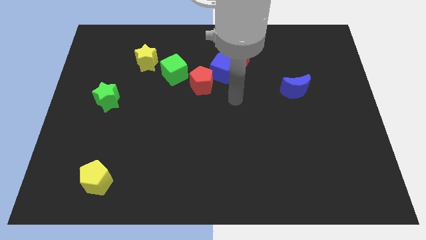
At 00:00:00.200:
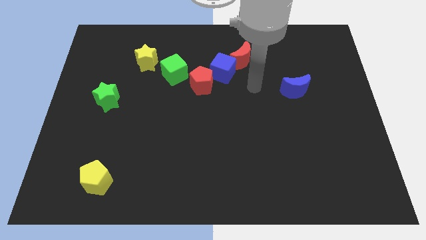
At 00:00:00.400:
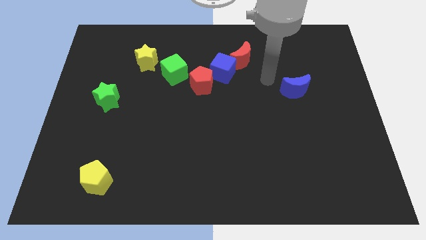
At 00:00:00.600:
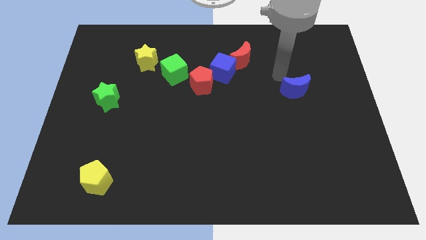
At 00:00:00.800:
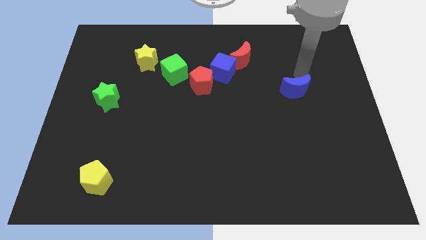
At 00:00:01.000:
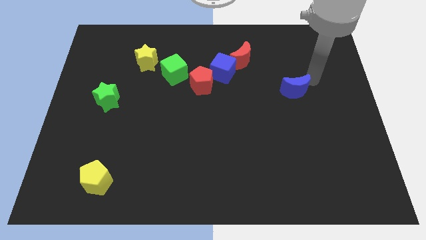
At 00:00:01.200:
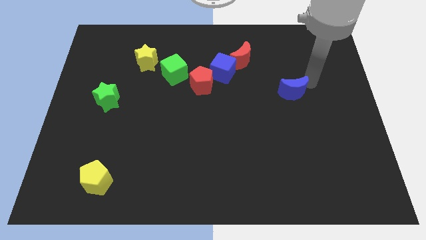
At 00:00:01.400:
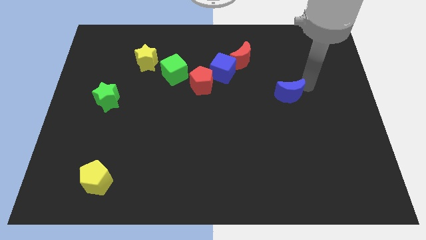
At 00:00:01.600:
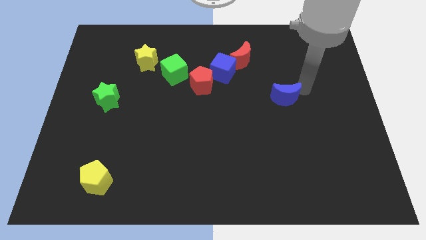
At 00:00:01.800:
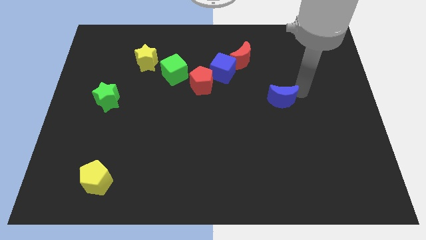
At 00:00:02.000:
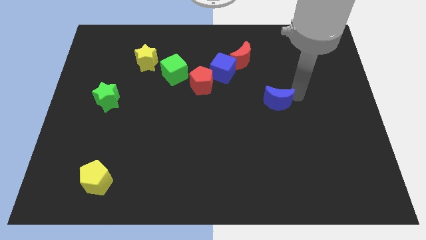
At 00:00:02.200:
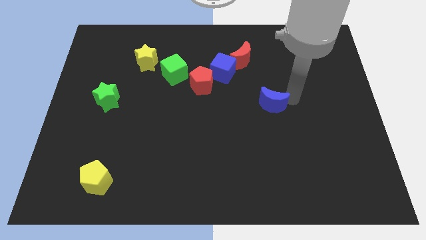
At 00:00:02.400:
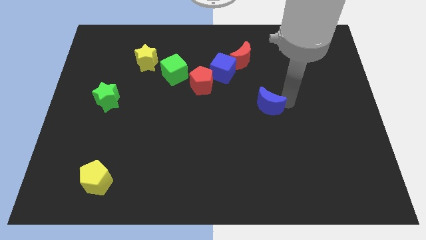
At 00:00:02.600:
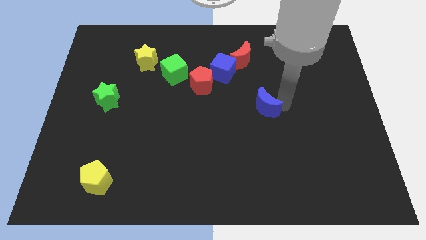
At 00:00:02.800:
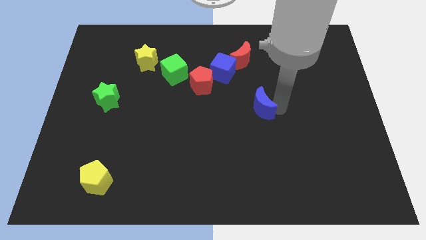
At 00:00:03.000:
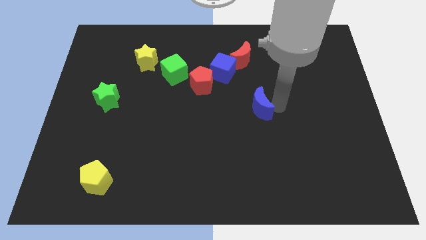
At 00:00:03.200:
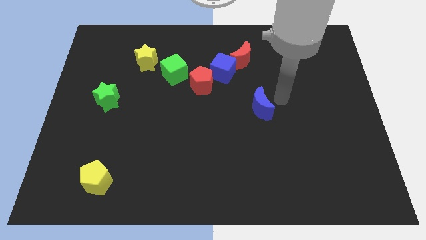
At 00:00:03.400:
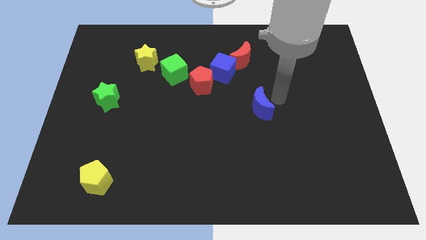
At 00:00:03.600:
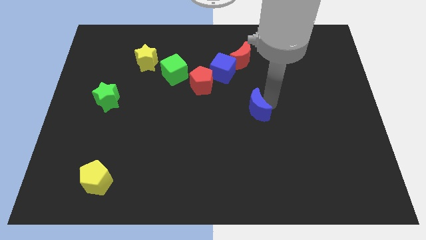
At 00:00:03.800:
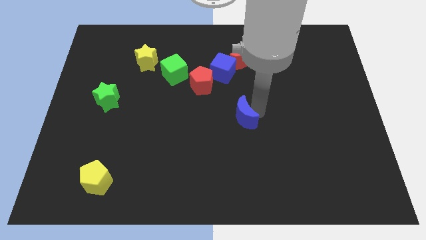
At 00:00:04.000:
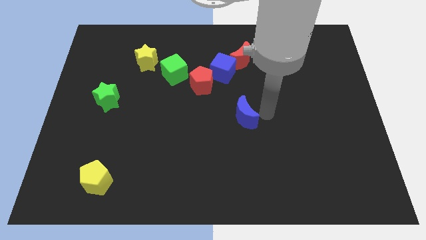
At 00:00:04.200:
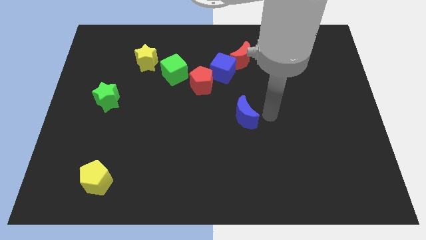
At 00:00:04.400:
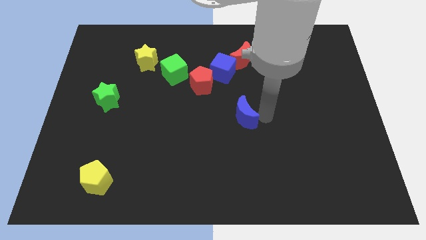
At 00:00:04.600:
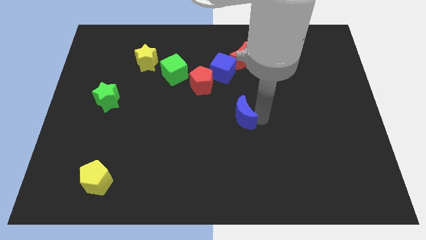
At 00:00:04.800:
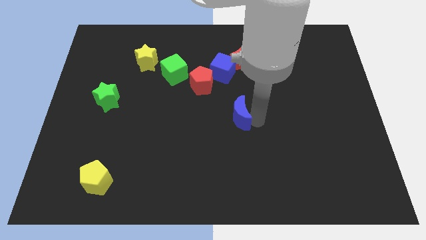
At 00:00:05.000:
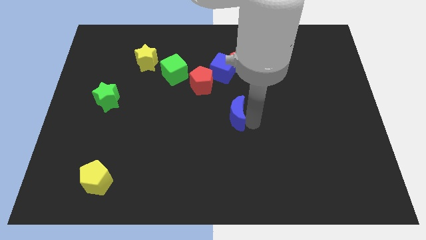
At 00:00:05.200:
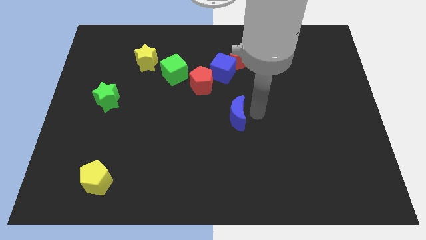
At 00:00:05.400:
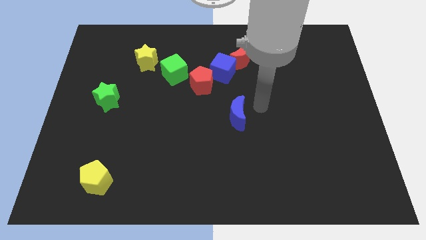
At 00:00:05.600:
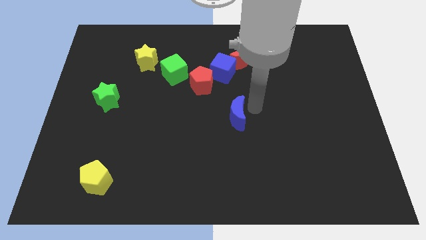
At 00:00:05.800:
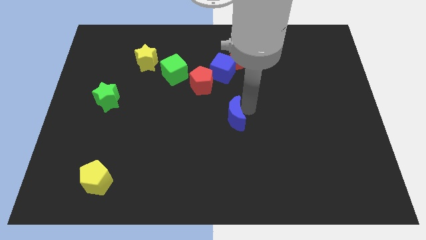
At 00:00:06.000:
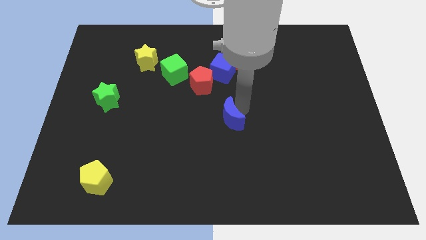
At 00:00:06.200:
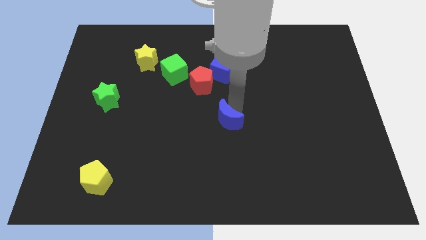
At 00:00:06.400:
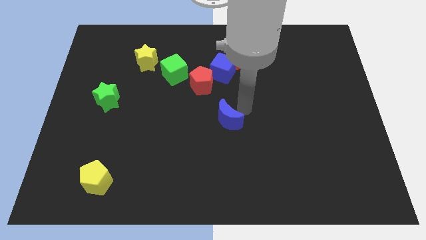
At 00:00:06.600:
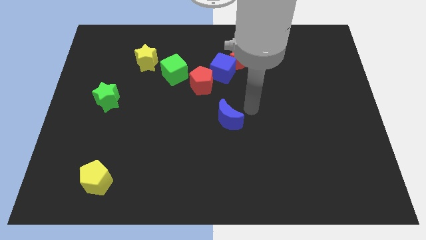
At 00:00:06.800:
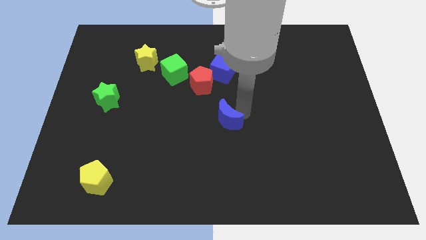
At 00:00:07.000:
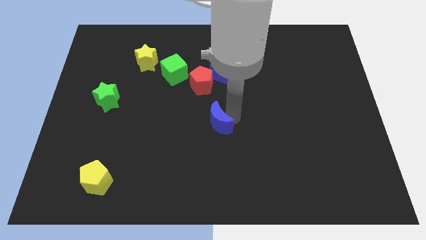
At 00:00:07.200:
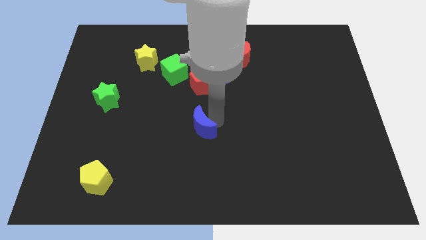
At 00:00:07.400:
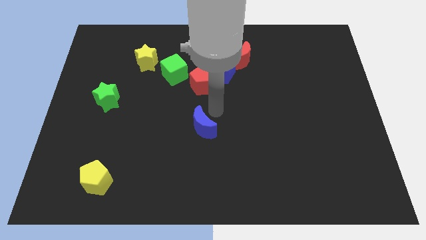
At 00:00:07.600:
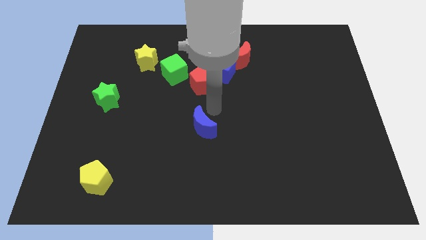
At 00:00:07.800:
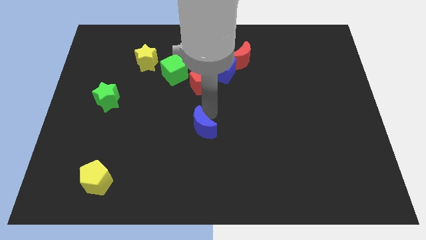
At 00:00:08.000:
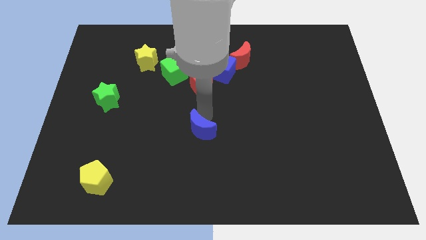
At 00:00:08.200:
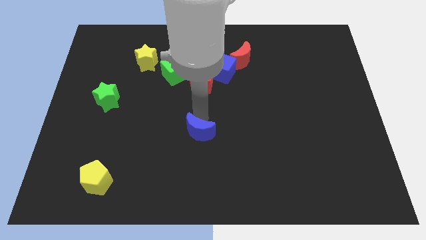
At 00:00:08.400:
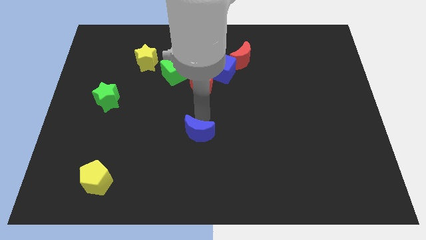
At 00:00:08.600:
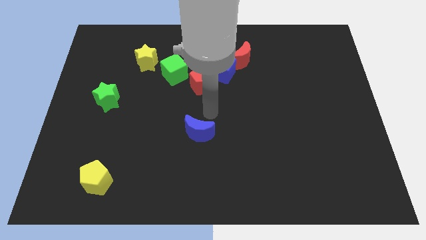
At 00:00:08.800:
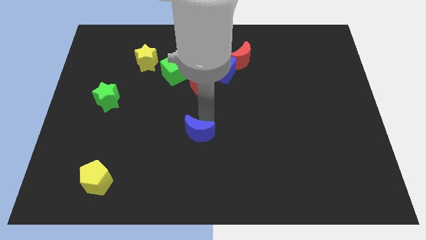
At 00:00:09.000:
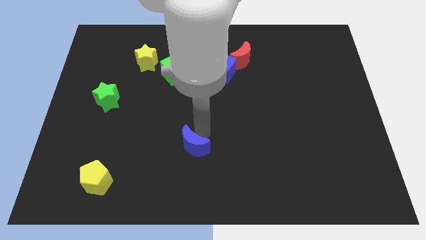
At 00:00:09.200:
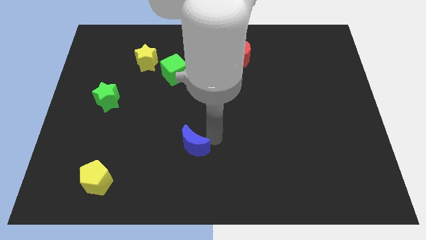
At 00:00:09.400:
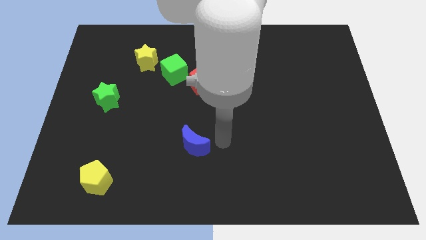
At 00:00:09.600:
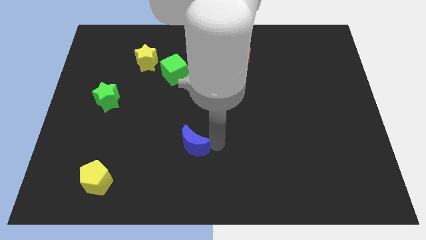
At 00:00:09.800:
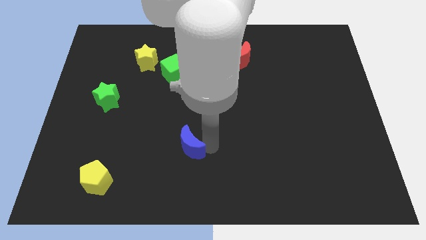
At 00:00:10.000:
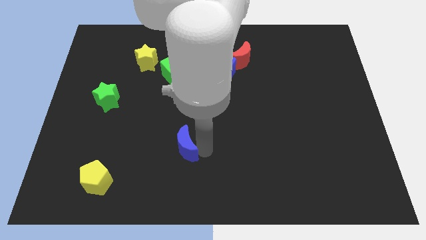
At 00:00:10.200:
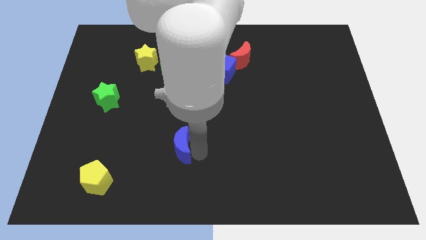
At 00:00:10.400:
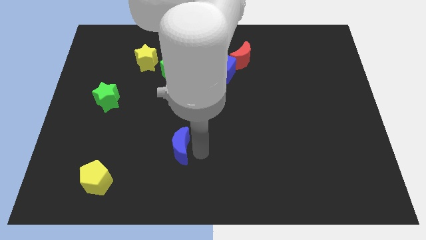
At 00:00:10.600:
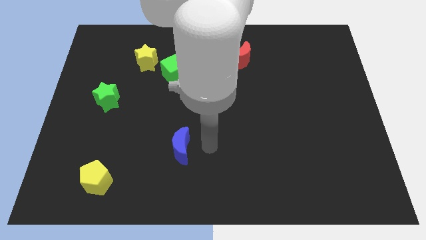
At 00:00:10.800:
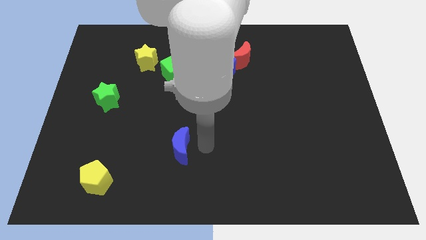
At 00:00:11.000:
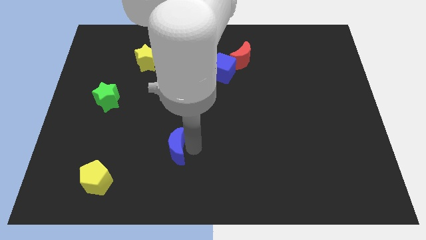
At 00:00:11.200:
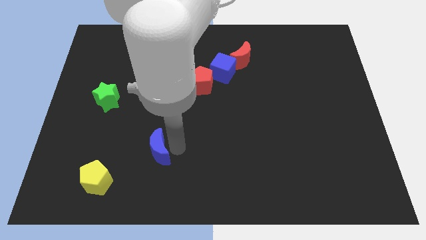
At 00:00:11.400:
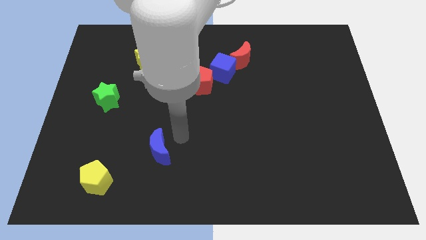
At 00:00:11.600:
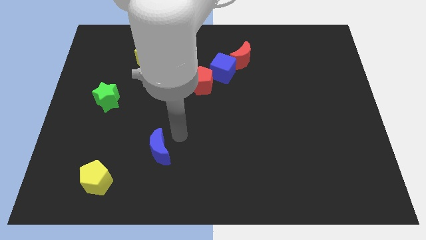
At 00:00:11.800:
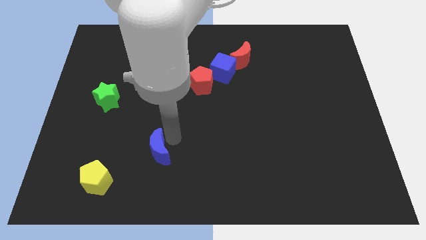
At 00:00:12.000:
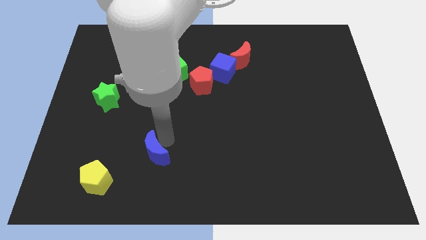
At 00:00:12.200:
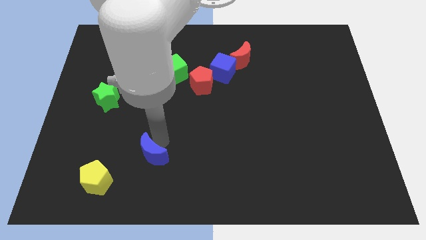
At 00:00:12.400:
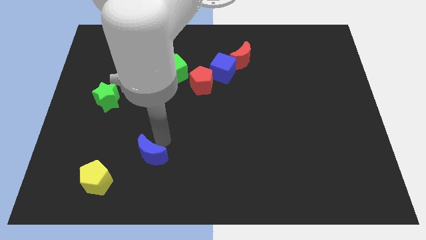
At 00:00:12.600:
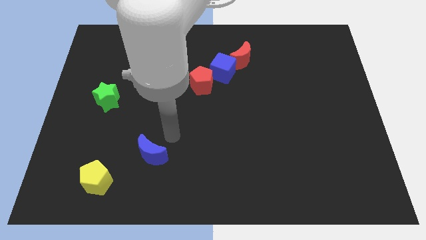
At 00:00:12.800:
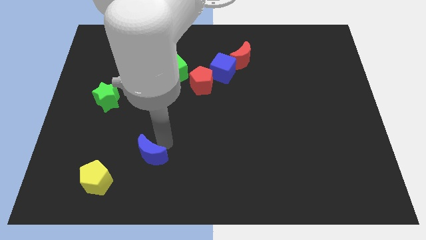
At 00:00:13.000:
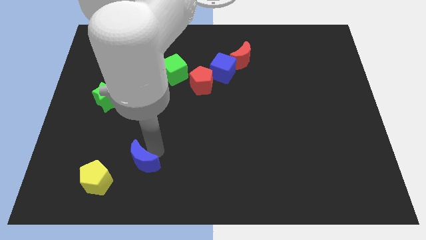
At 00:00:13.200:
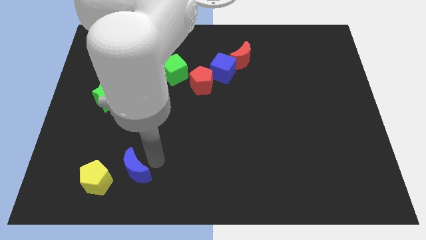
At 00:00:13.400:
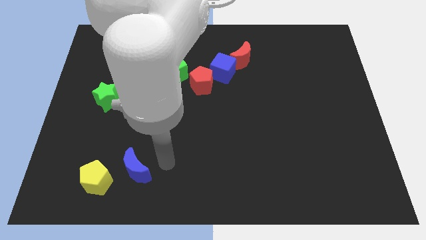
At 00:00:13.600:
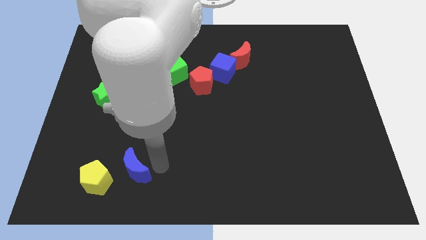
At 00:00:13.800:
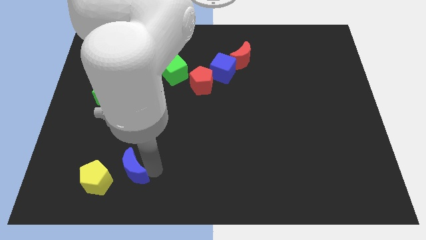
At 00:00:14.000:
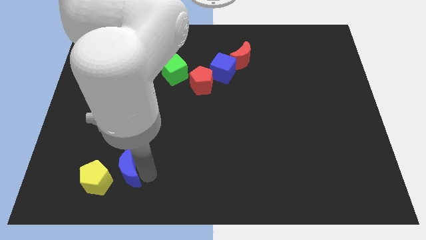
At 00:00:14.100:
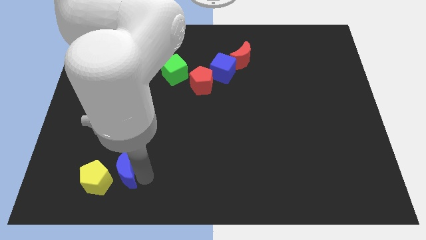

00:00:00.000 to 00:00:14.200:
move the blue moon to the yellow pentagon

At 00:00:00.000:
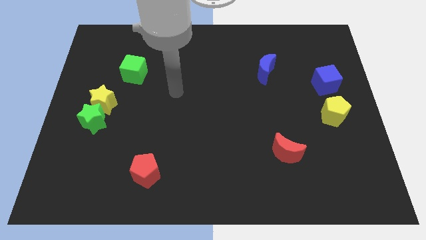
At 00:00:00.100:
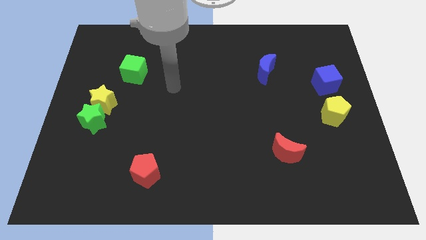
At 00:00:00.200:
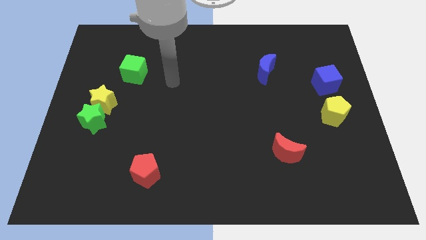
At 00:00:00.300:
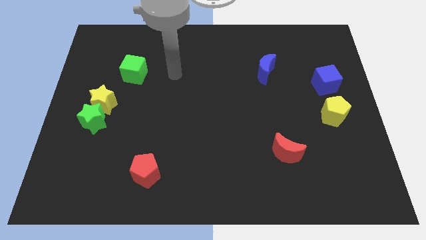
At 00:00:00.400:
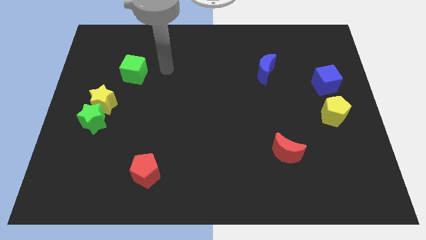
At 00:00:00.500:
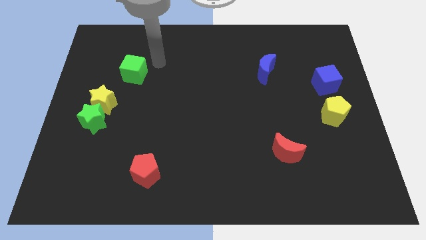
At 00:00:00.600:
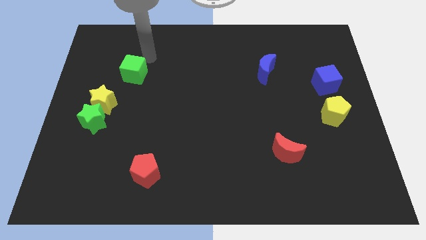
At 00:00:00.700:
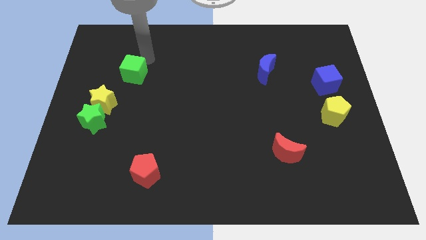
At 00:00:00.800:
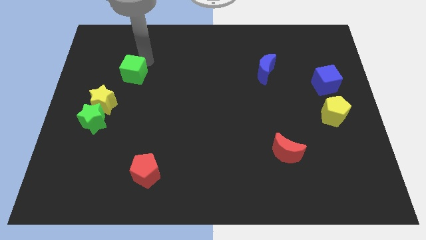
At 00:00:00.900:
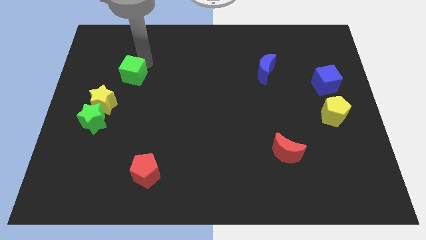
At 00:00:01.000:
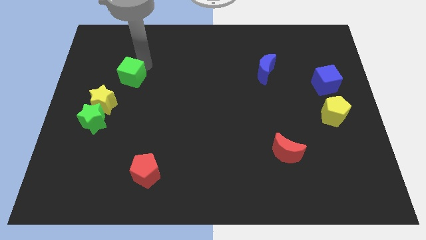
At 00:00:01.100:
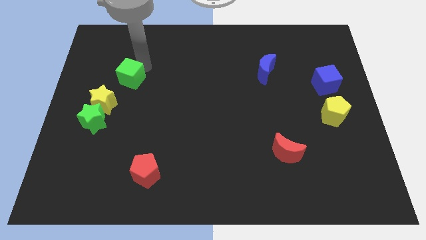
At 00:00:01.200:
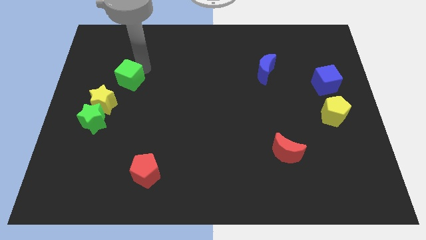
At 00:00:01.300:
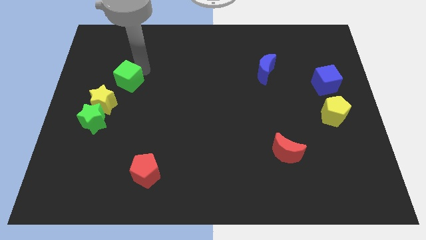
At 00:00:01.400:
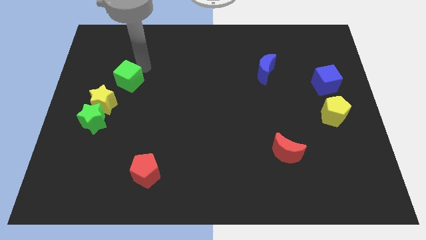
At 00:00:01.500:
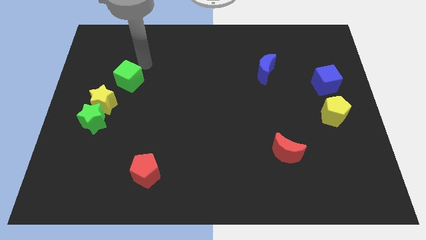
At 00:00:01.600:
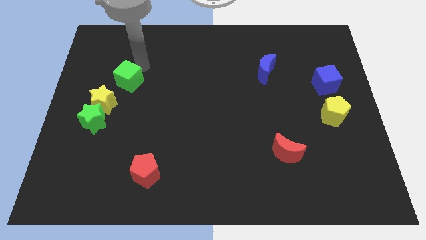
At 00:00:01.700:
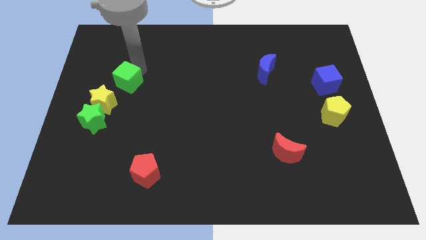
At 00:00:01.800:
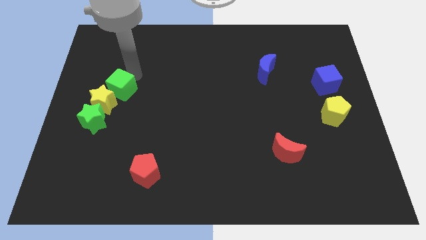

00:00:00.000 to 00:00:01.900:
put the green cube close to the yellow star
